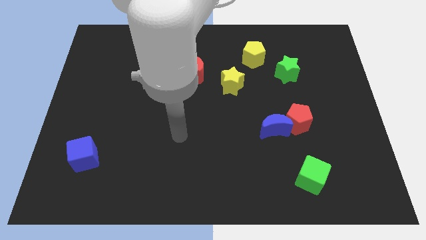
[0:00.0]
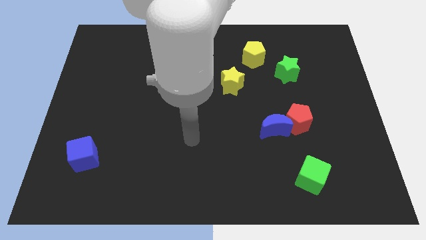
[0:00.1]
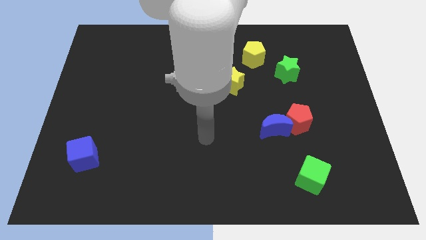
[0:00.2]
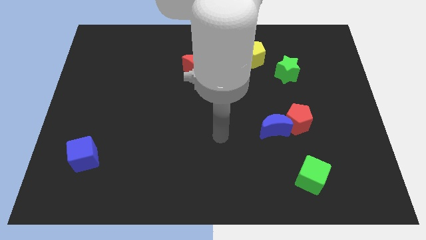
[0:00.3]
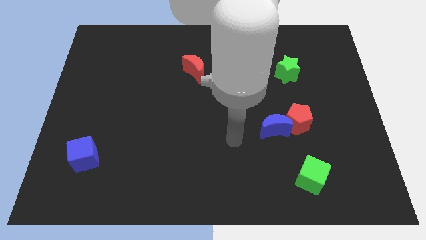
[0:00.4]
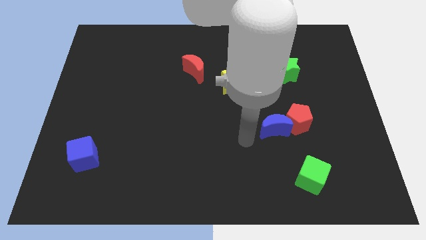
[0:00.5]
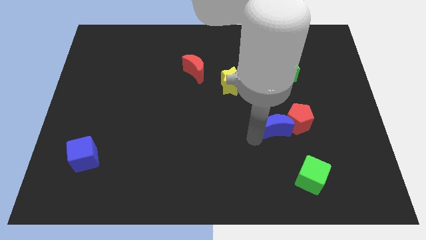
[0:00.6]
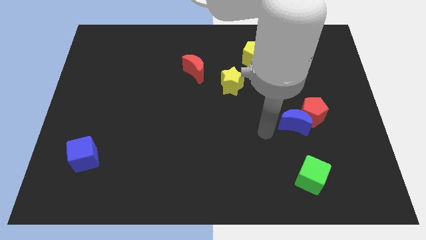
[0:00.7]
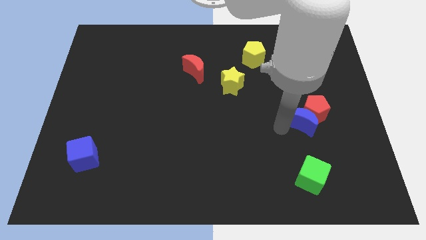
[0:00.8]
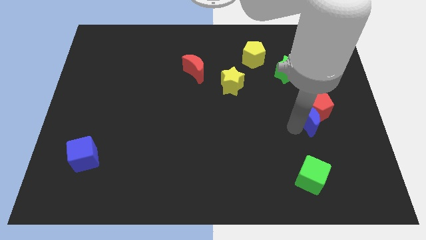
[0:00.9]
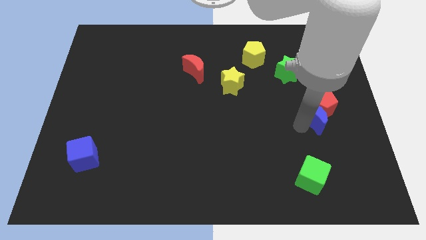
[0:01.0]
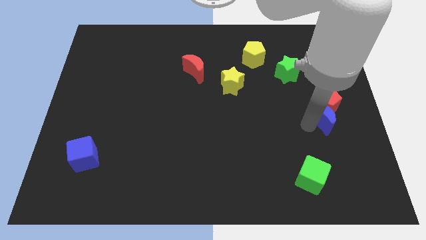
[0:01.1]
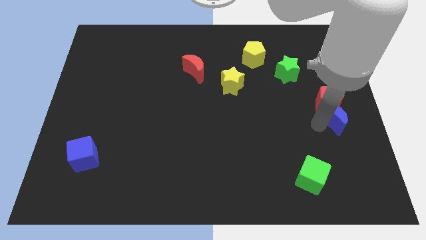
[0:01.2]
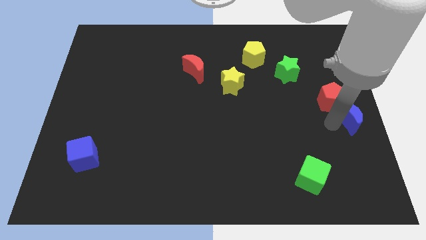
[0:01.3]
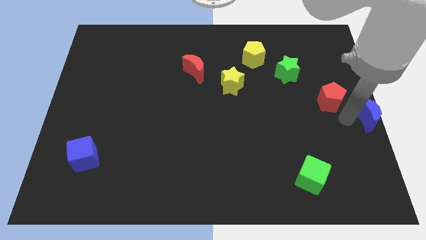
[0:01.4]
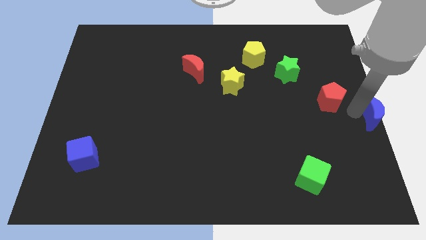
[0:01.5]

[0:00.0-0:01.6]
move the red pentagon away from the blue moon

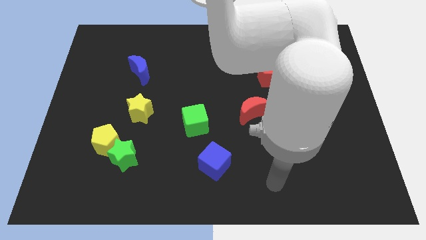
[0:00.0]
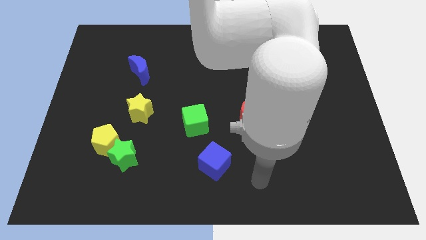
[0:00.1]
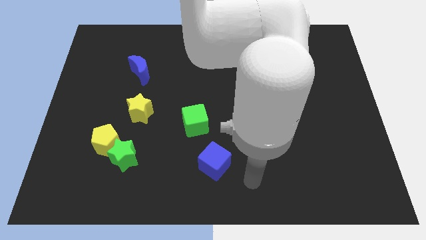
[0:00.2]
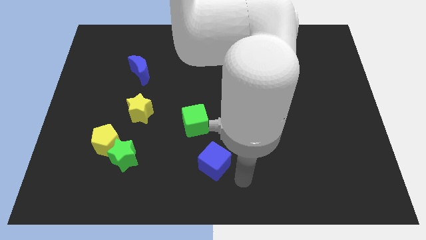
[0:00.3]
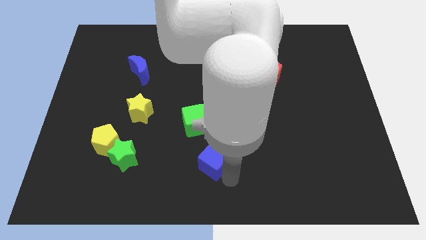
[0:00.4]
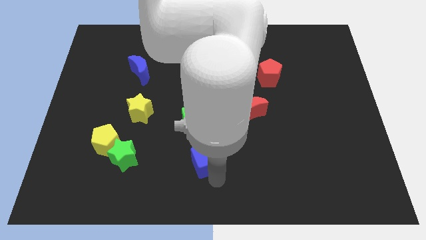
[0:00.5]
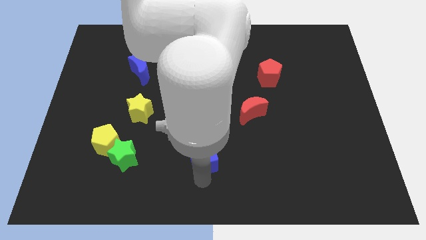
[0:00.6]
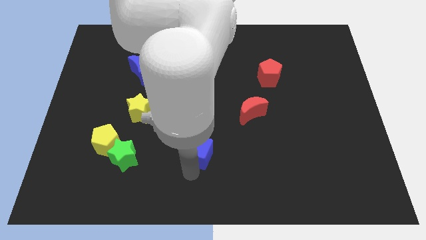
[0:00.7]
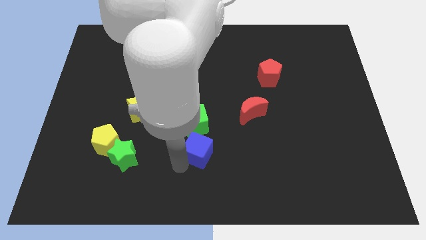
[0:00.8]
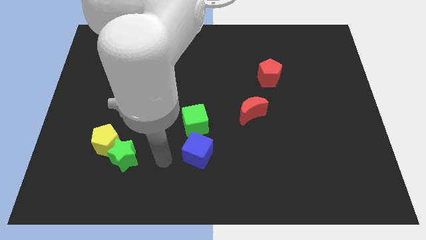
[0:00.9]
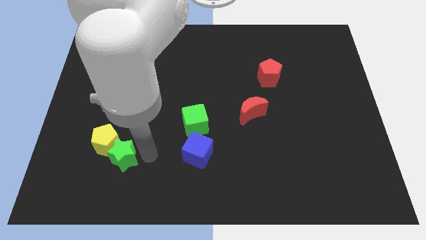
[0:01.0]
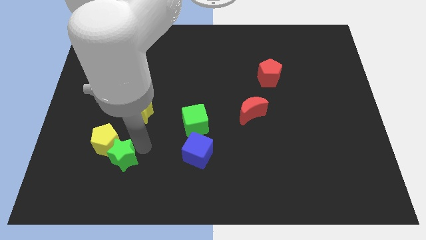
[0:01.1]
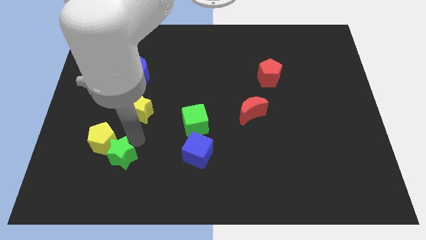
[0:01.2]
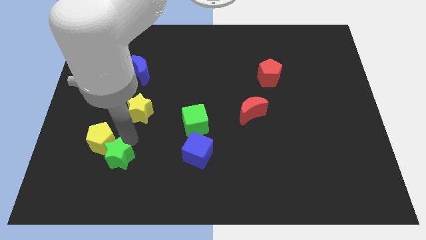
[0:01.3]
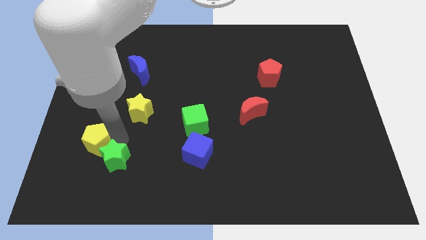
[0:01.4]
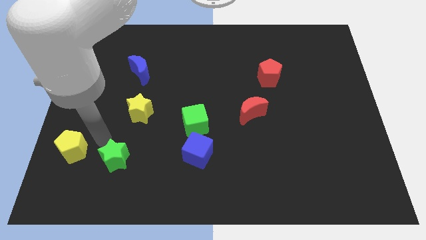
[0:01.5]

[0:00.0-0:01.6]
pull the green star apart from the yellow pentagon

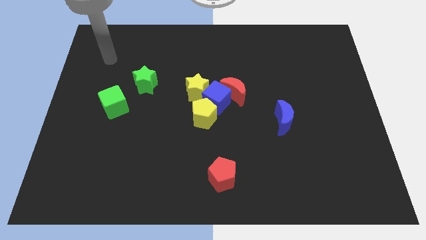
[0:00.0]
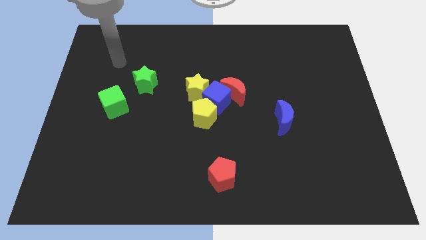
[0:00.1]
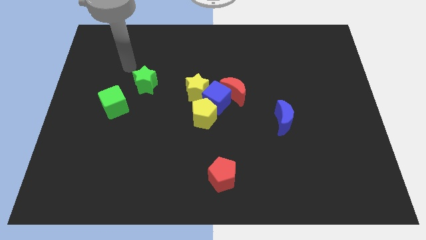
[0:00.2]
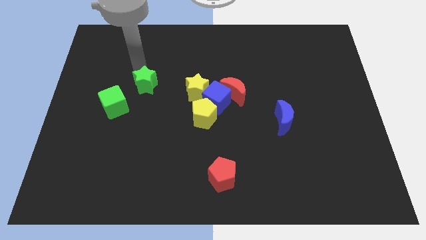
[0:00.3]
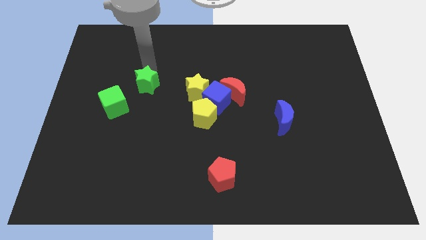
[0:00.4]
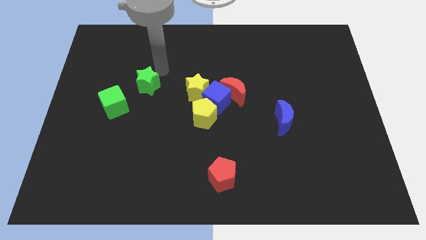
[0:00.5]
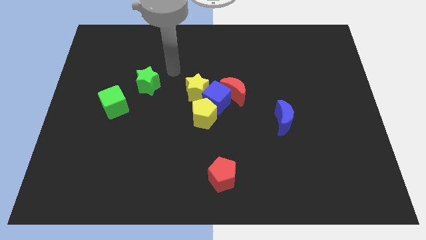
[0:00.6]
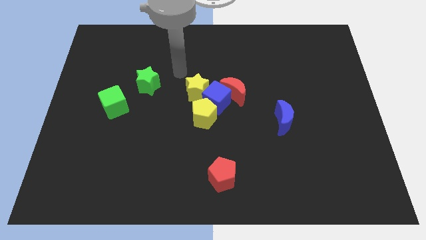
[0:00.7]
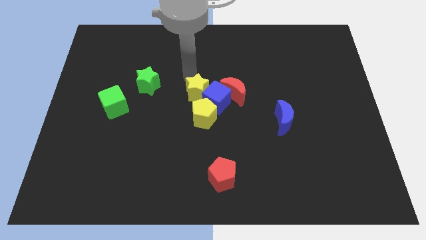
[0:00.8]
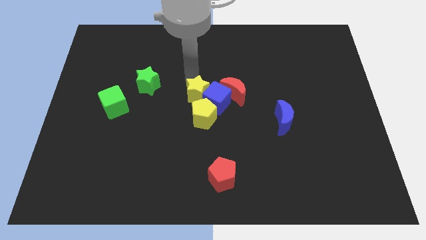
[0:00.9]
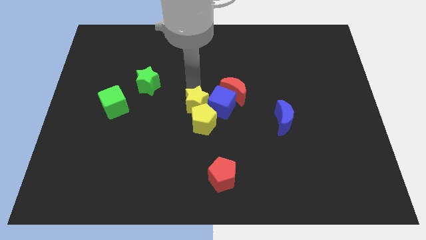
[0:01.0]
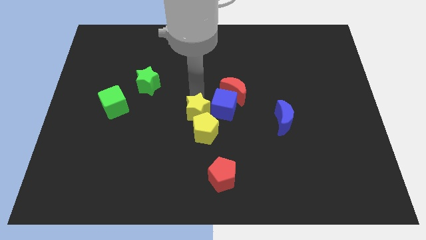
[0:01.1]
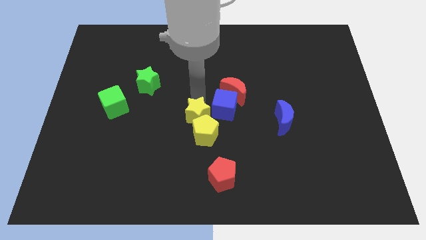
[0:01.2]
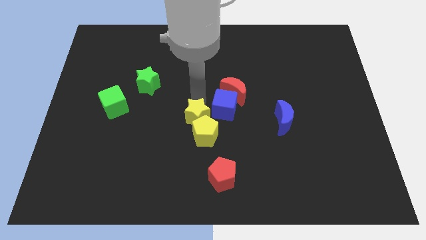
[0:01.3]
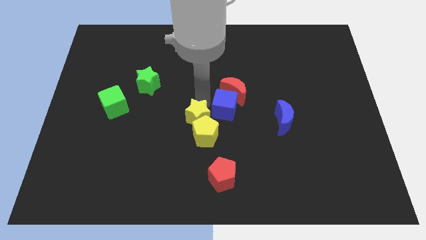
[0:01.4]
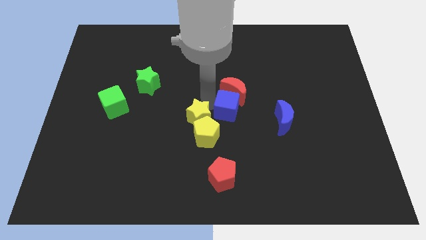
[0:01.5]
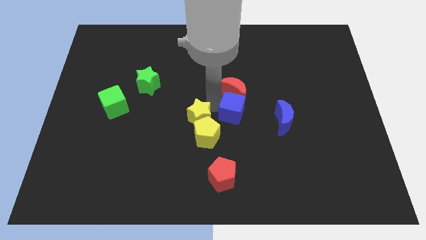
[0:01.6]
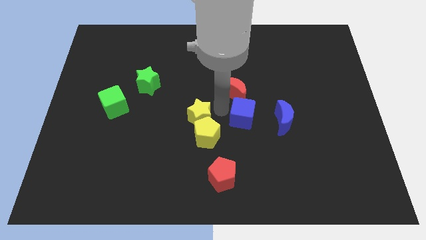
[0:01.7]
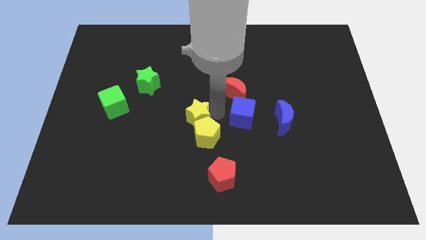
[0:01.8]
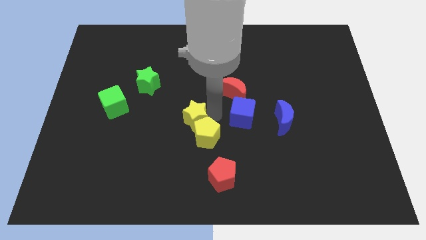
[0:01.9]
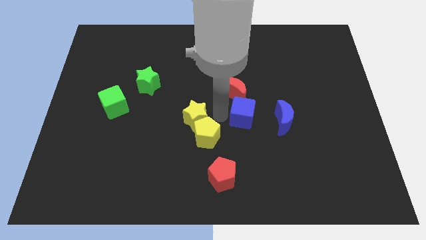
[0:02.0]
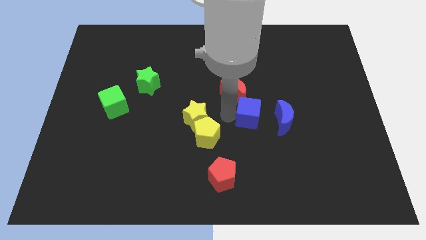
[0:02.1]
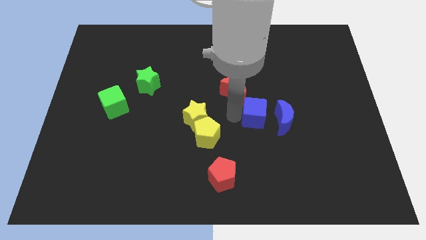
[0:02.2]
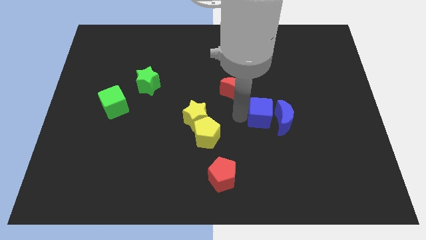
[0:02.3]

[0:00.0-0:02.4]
move the blue cube away from the clump

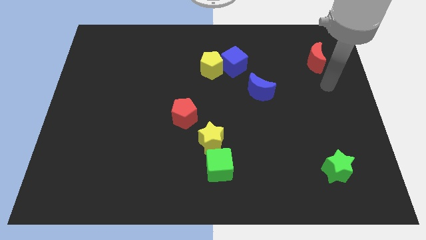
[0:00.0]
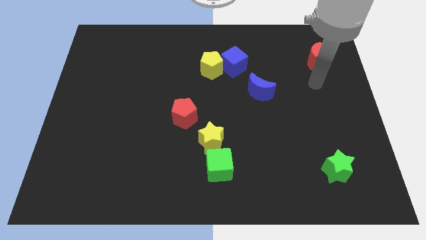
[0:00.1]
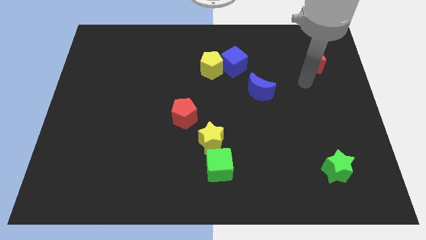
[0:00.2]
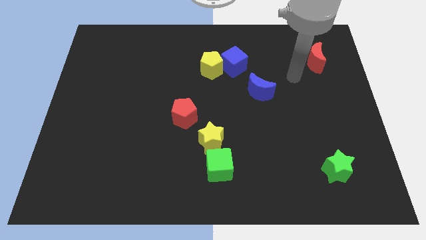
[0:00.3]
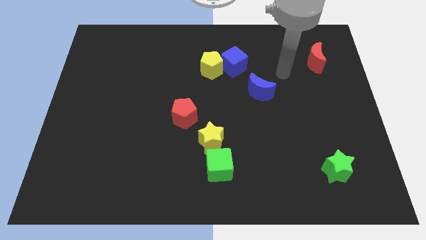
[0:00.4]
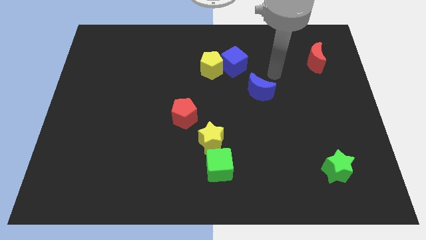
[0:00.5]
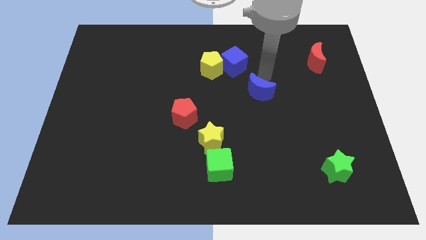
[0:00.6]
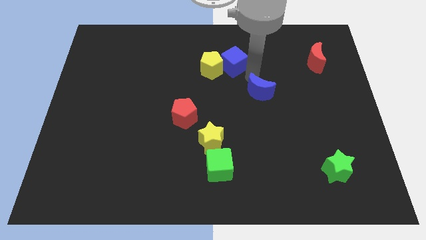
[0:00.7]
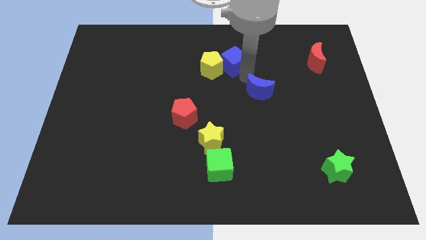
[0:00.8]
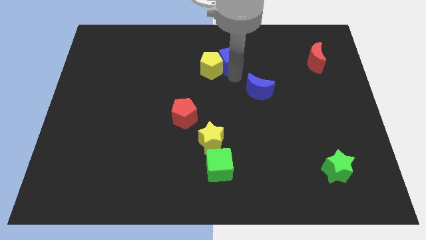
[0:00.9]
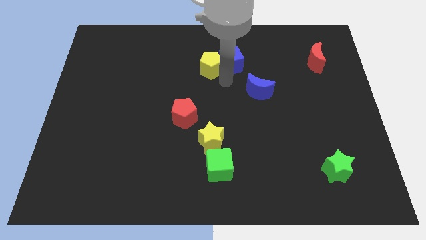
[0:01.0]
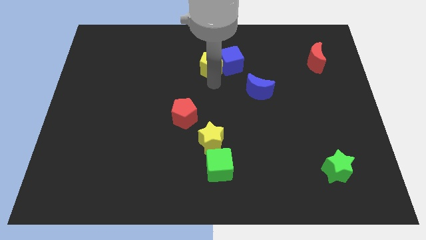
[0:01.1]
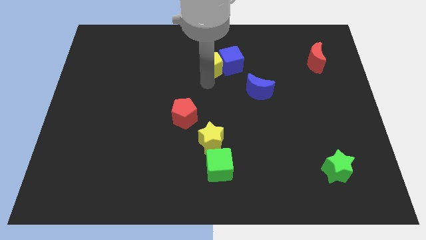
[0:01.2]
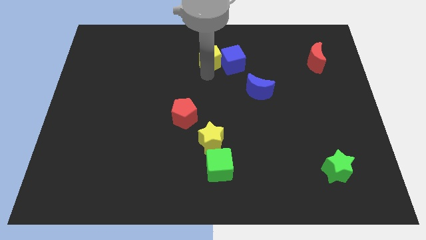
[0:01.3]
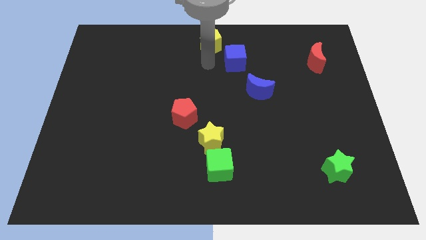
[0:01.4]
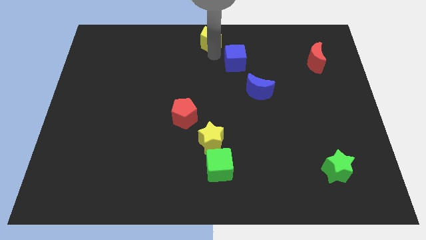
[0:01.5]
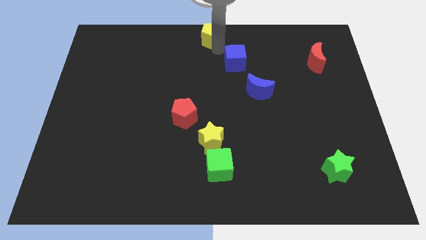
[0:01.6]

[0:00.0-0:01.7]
move the blue cube away from the yellow pentagon

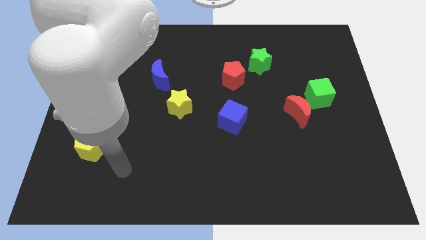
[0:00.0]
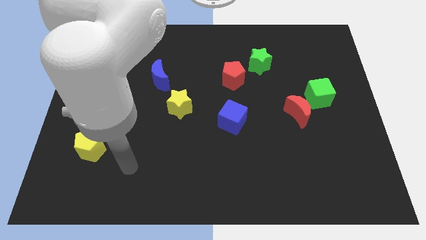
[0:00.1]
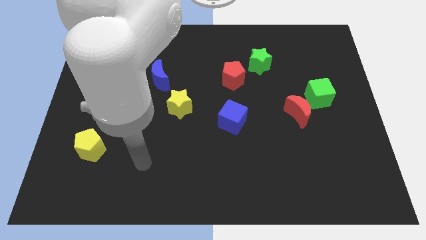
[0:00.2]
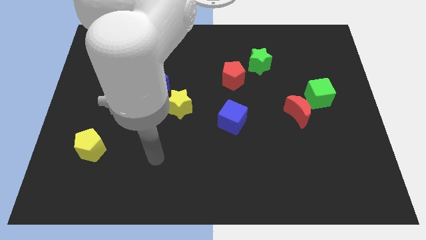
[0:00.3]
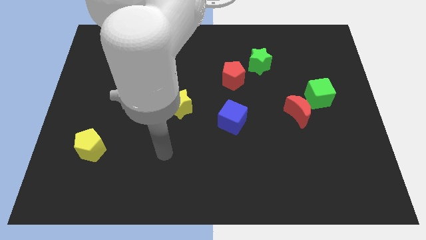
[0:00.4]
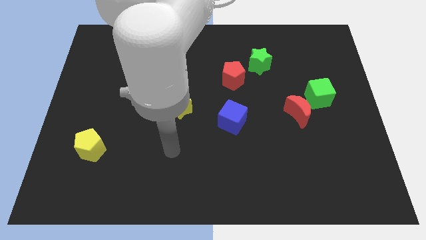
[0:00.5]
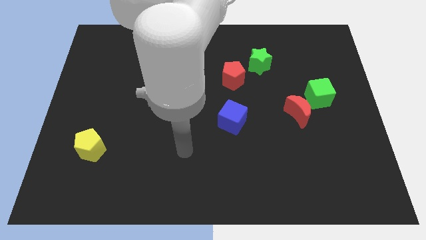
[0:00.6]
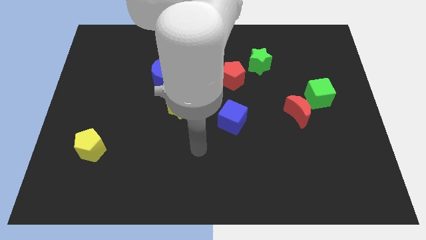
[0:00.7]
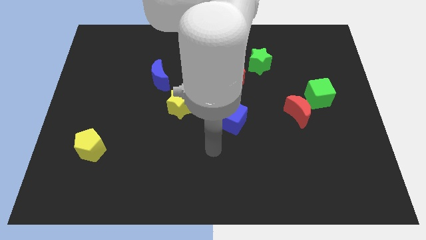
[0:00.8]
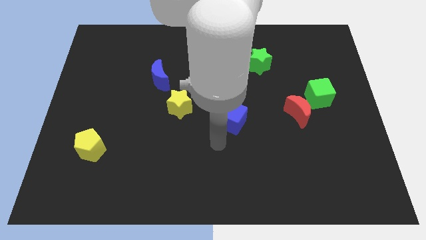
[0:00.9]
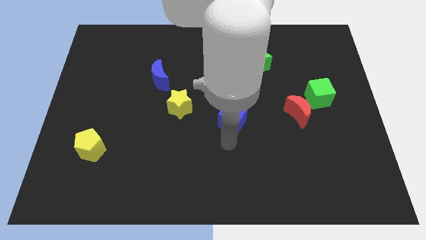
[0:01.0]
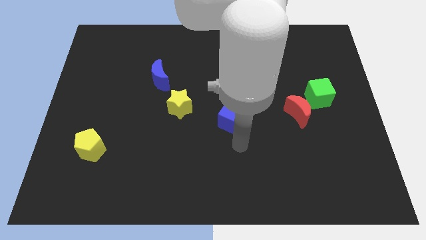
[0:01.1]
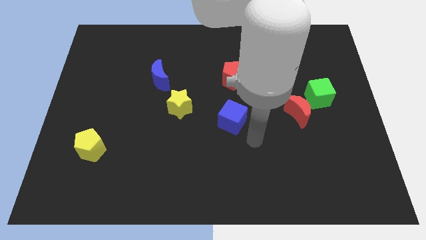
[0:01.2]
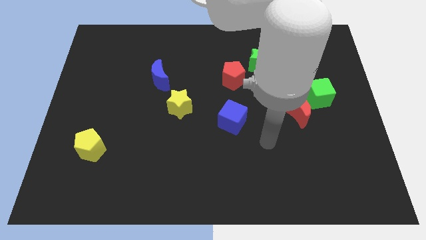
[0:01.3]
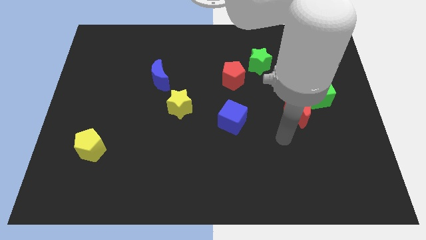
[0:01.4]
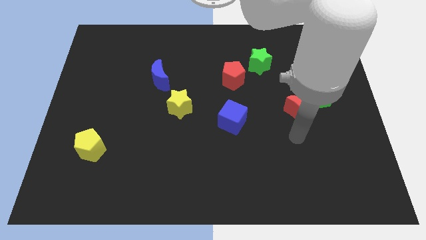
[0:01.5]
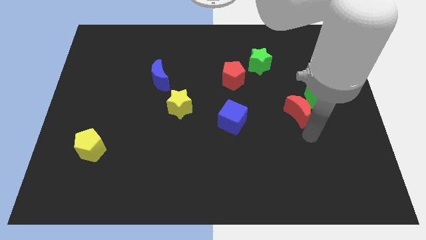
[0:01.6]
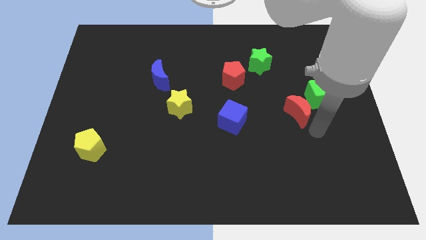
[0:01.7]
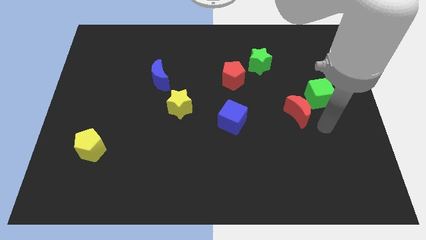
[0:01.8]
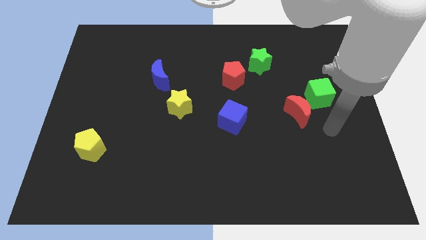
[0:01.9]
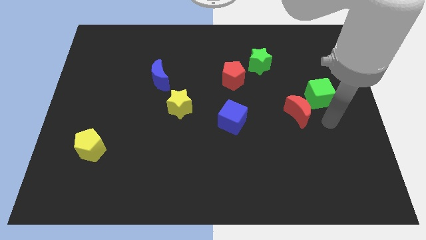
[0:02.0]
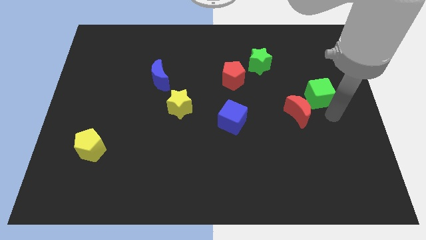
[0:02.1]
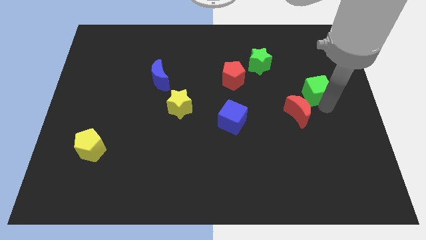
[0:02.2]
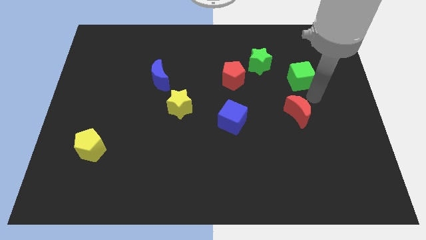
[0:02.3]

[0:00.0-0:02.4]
separate the red moon from the green cube
